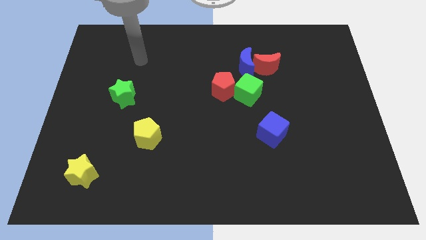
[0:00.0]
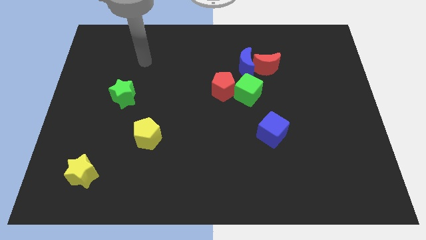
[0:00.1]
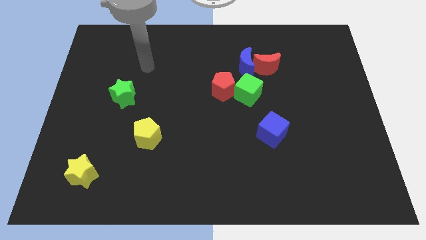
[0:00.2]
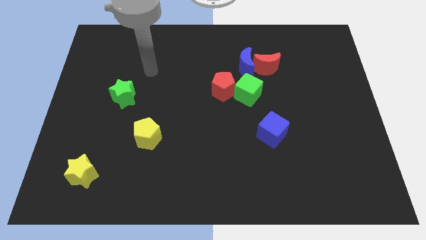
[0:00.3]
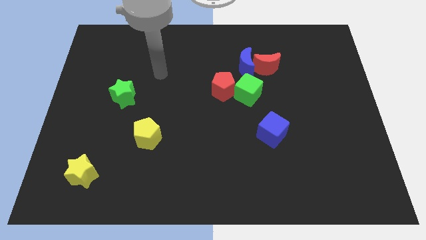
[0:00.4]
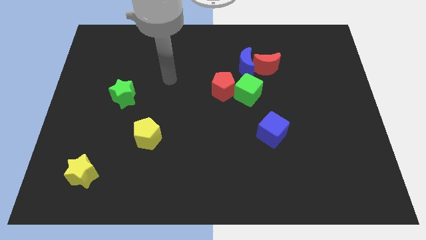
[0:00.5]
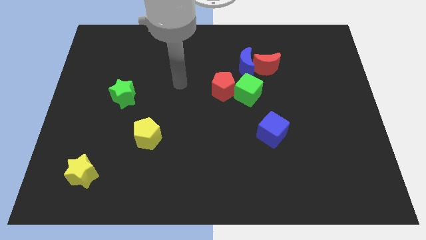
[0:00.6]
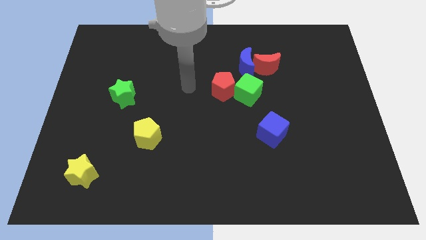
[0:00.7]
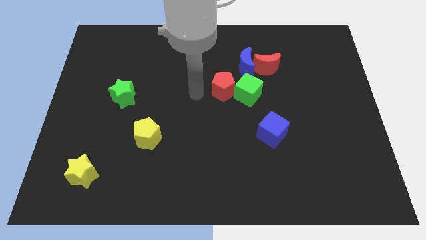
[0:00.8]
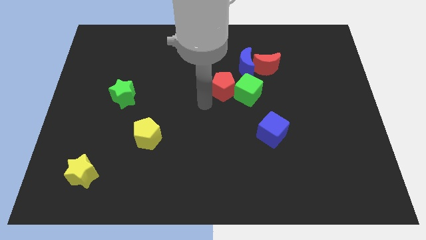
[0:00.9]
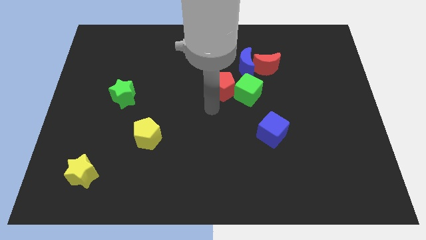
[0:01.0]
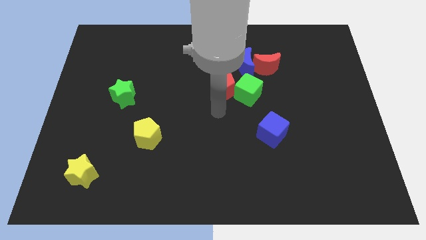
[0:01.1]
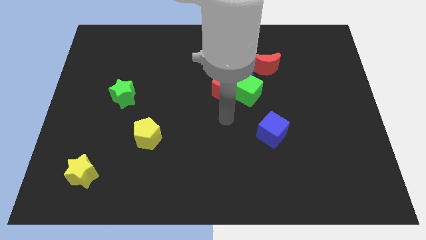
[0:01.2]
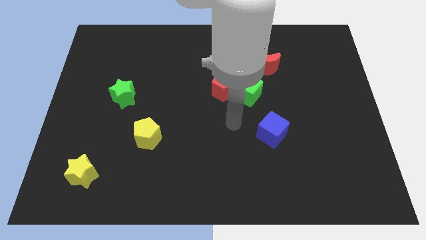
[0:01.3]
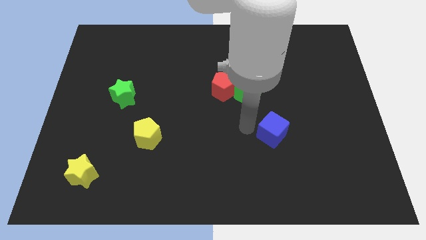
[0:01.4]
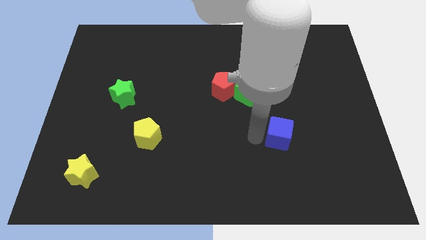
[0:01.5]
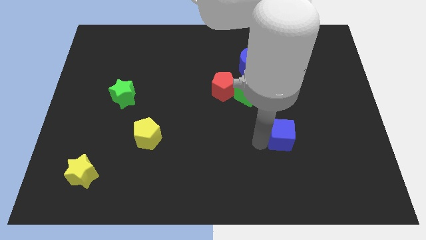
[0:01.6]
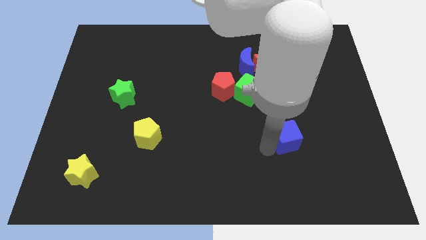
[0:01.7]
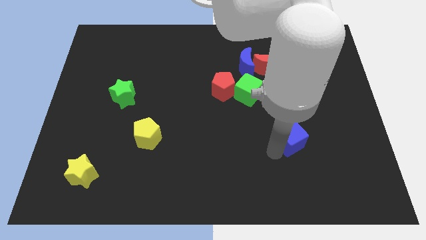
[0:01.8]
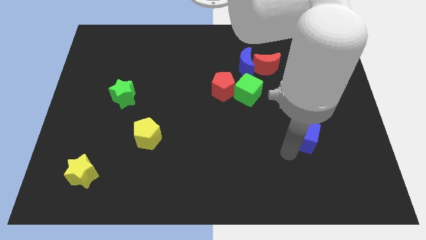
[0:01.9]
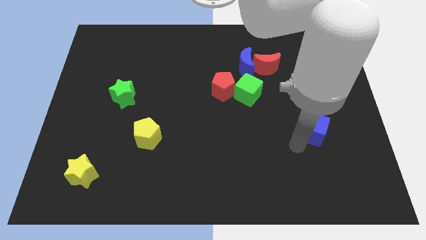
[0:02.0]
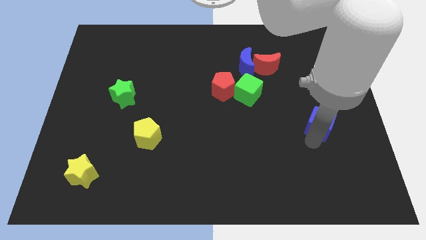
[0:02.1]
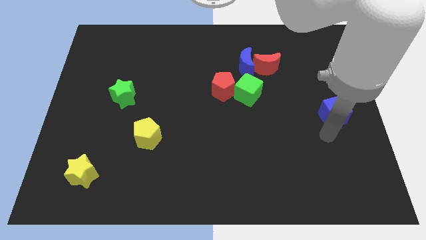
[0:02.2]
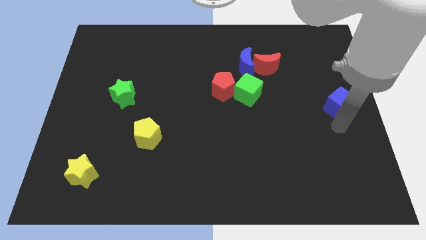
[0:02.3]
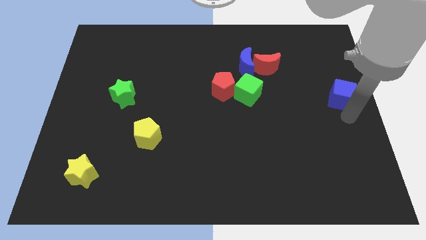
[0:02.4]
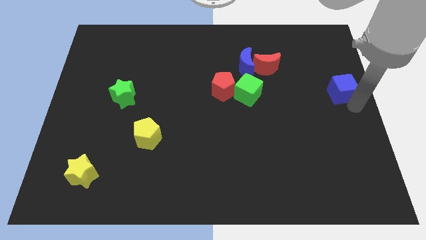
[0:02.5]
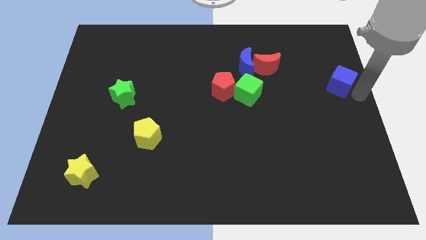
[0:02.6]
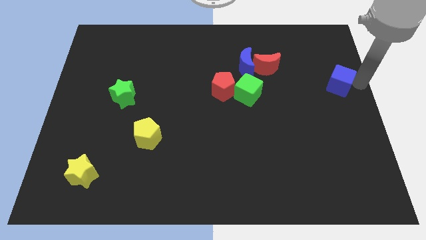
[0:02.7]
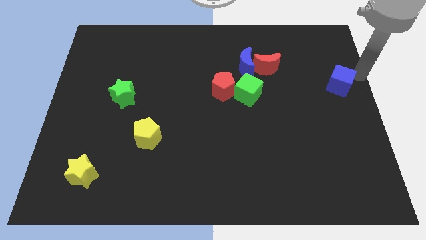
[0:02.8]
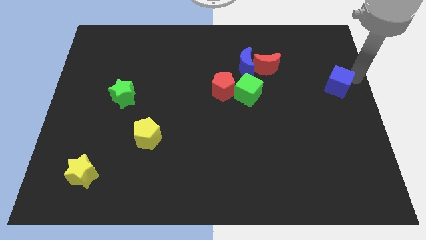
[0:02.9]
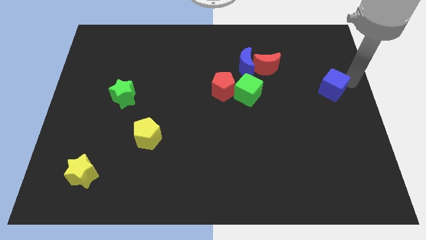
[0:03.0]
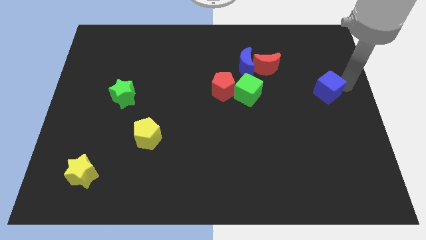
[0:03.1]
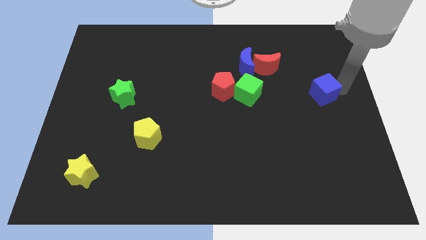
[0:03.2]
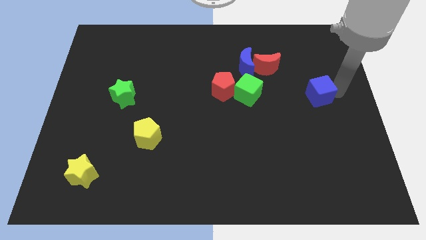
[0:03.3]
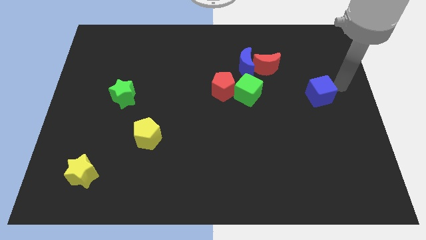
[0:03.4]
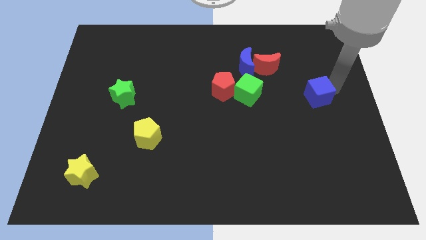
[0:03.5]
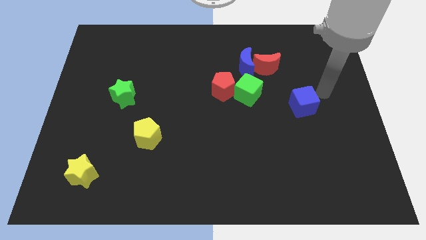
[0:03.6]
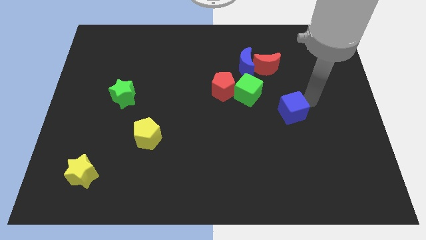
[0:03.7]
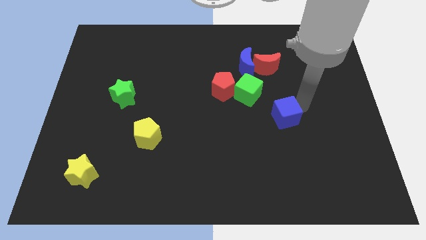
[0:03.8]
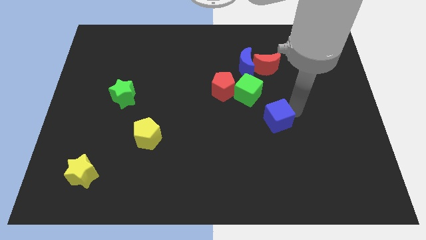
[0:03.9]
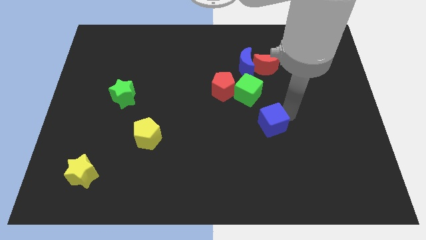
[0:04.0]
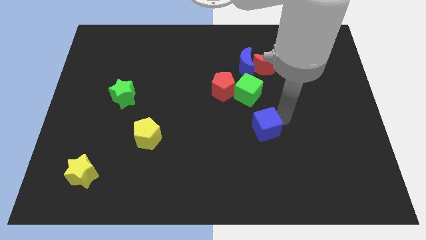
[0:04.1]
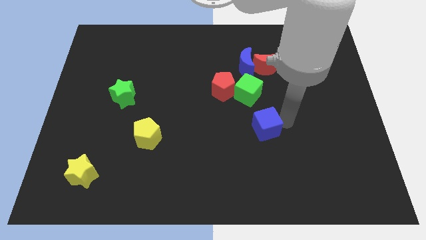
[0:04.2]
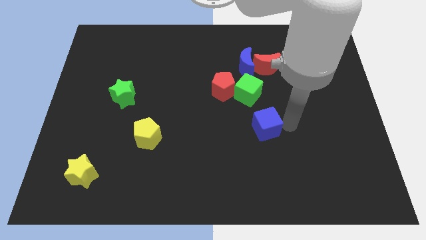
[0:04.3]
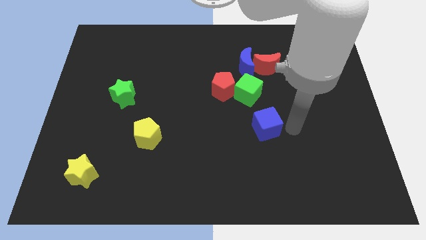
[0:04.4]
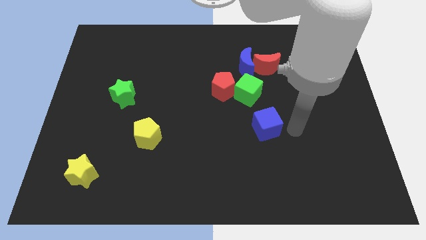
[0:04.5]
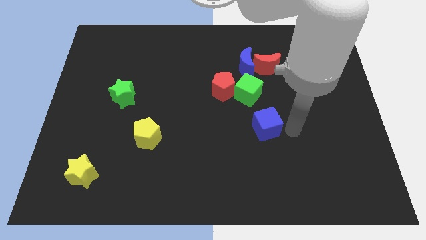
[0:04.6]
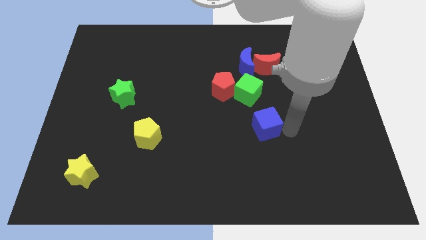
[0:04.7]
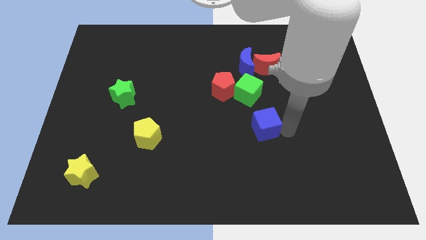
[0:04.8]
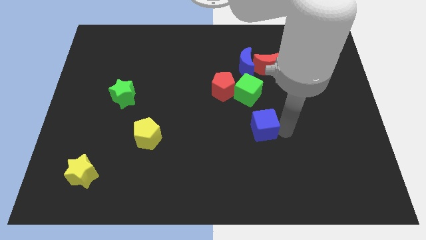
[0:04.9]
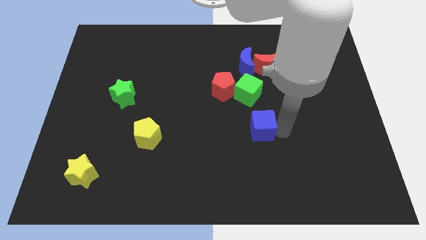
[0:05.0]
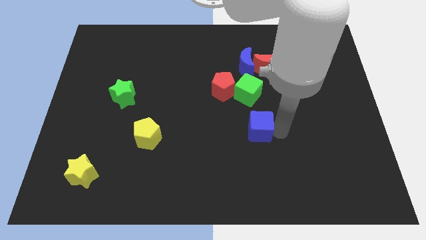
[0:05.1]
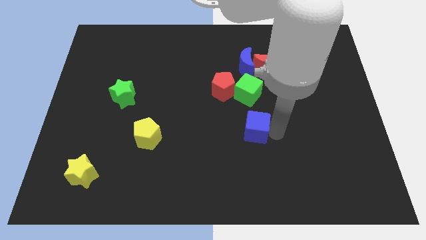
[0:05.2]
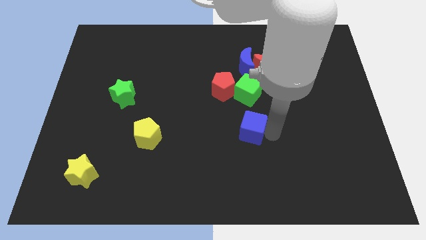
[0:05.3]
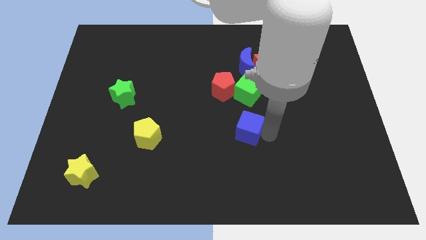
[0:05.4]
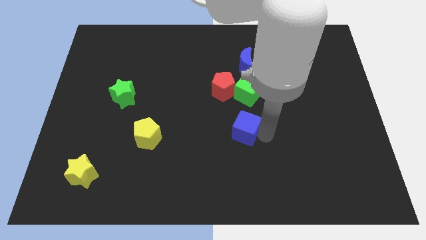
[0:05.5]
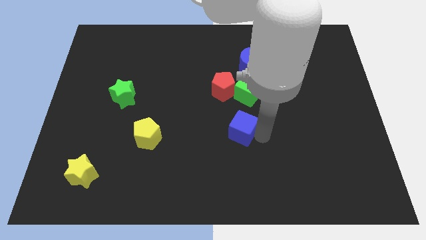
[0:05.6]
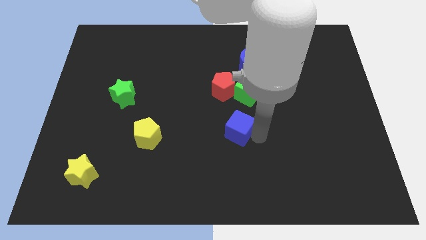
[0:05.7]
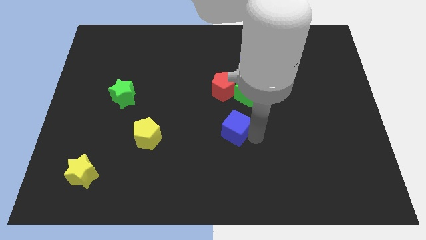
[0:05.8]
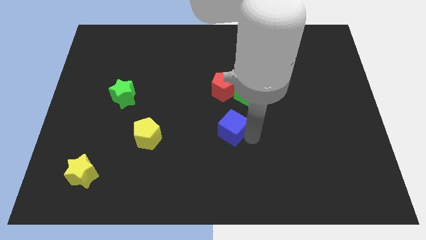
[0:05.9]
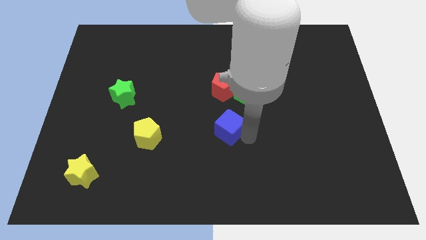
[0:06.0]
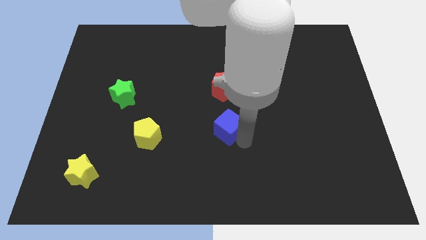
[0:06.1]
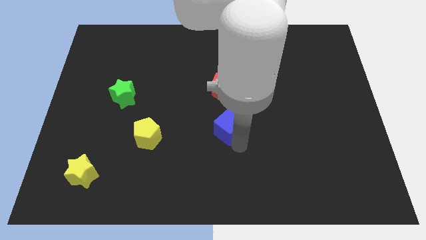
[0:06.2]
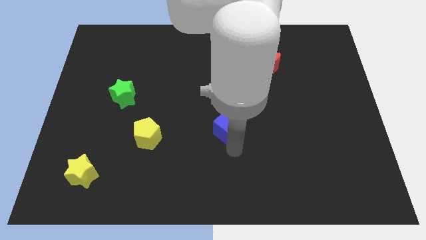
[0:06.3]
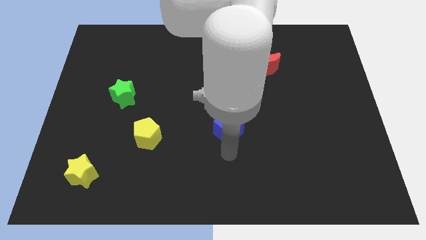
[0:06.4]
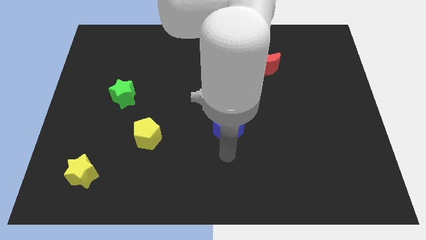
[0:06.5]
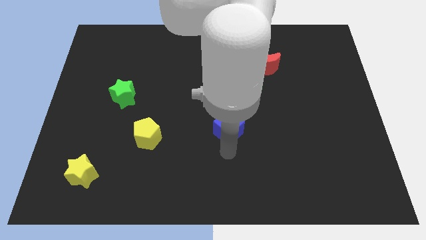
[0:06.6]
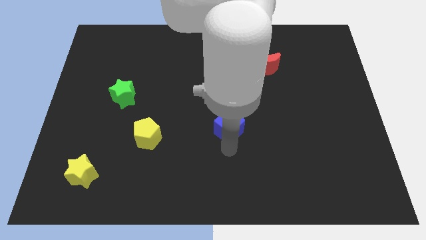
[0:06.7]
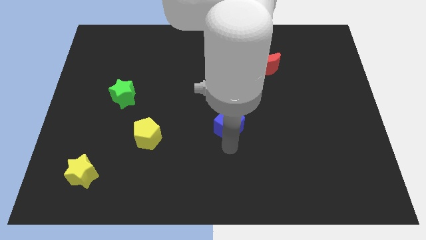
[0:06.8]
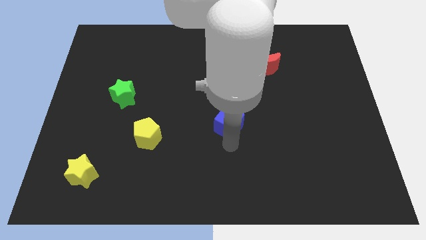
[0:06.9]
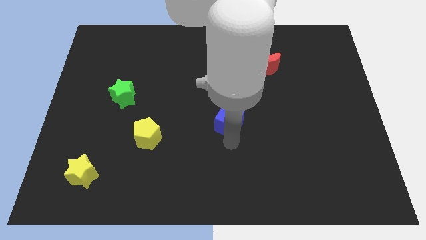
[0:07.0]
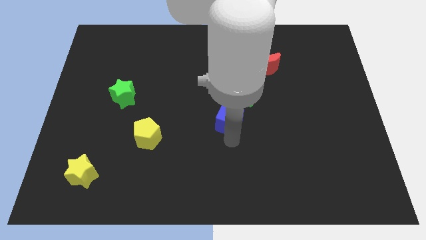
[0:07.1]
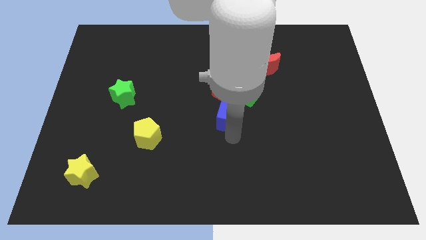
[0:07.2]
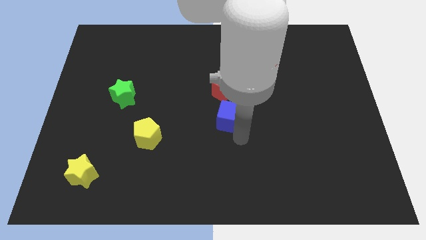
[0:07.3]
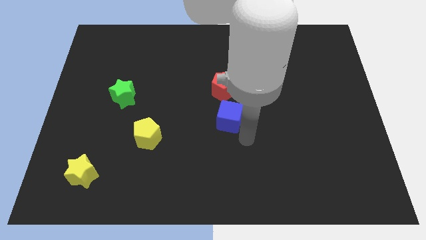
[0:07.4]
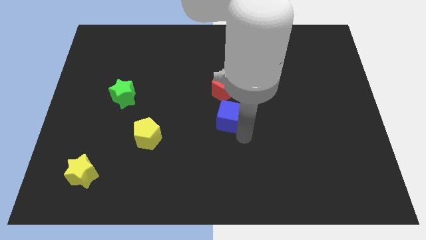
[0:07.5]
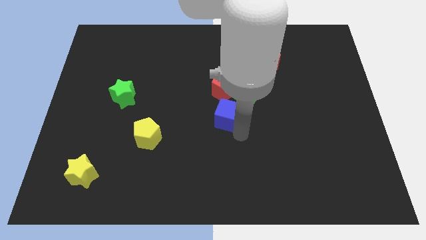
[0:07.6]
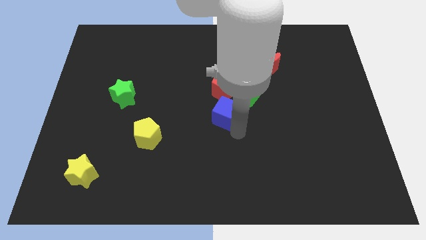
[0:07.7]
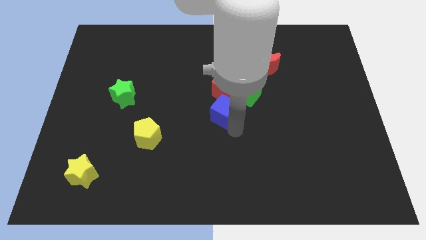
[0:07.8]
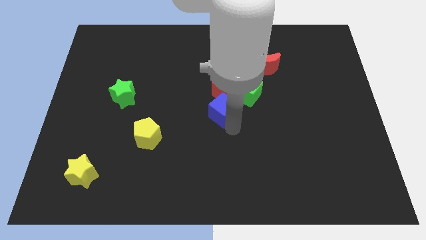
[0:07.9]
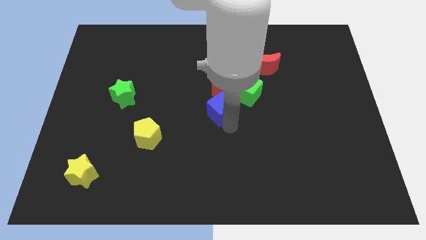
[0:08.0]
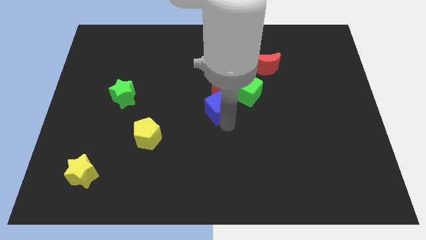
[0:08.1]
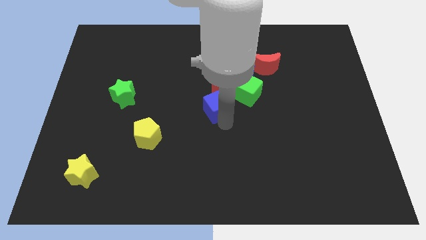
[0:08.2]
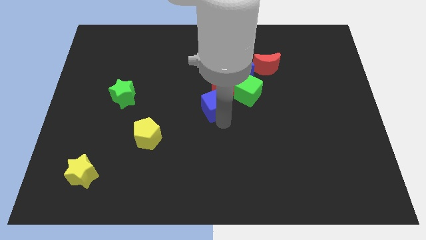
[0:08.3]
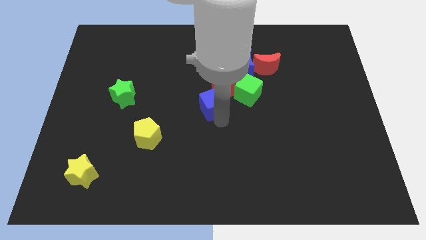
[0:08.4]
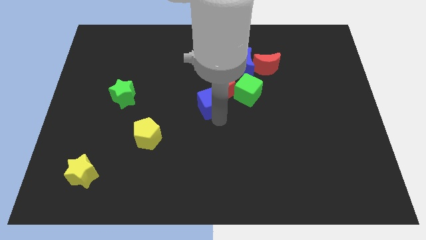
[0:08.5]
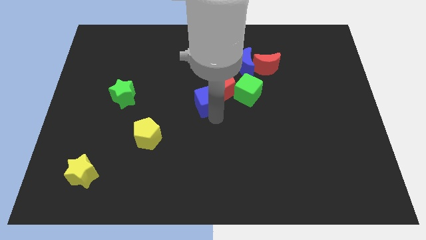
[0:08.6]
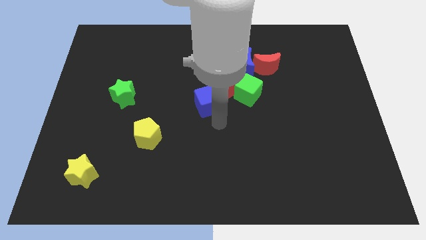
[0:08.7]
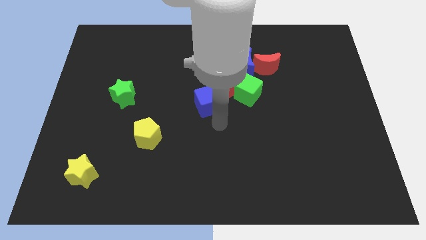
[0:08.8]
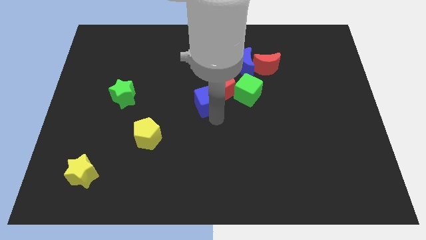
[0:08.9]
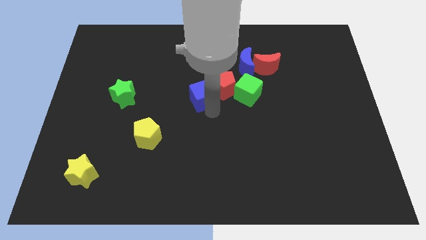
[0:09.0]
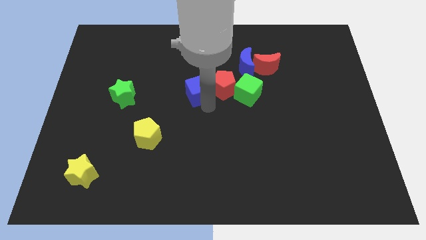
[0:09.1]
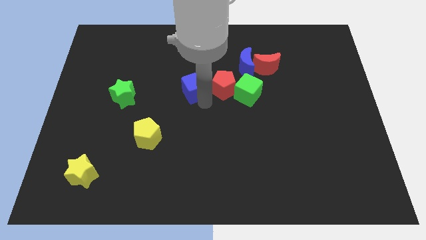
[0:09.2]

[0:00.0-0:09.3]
move the blue cube up and left diagonally
